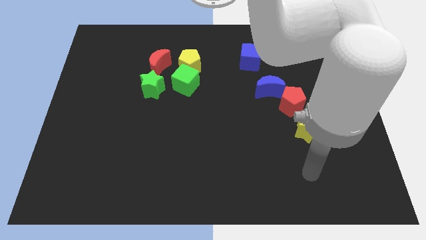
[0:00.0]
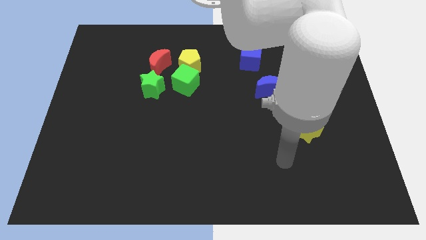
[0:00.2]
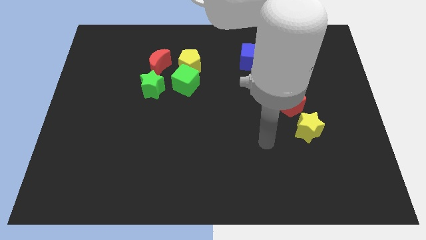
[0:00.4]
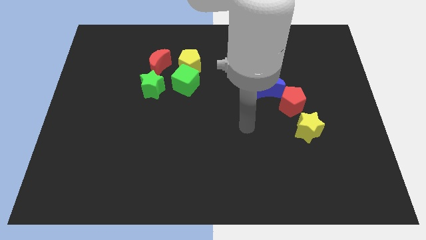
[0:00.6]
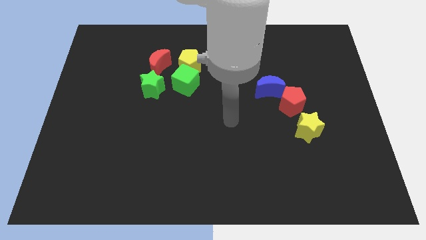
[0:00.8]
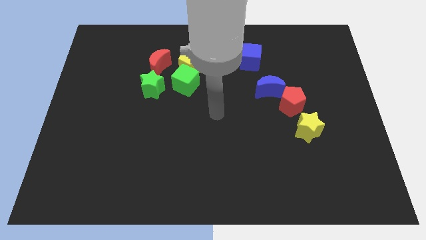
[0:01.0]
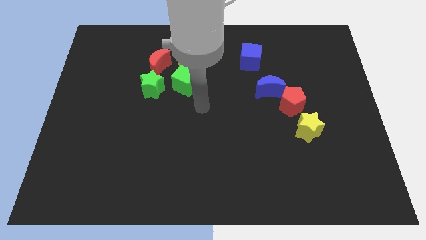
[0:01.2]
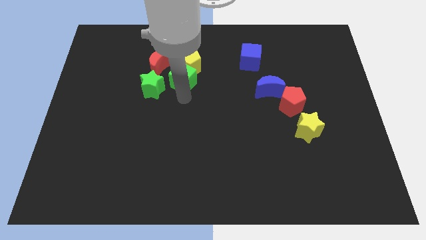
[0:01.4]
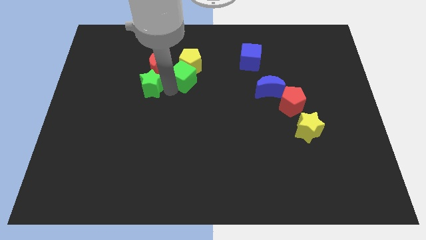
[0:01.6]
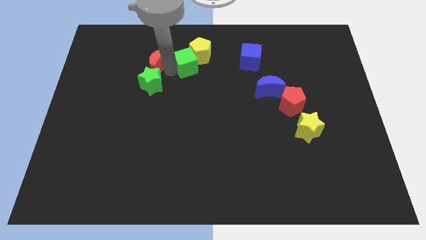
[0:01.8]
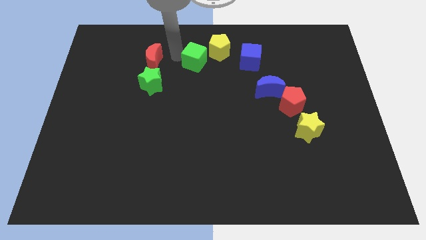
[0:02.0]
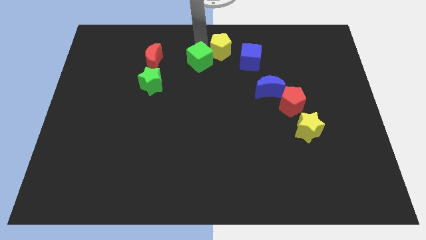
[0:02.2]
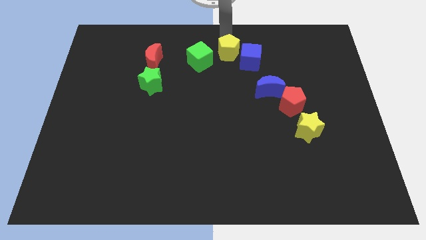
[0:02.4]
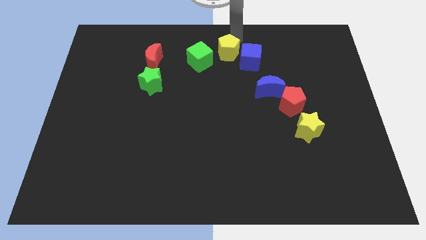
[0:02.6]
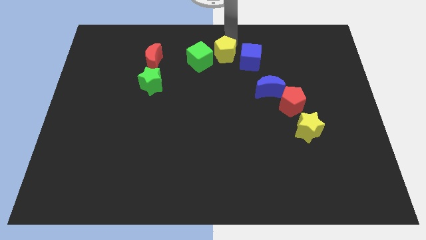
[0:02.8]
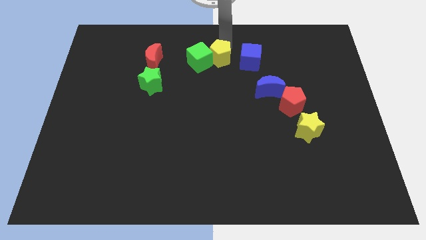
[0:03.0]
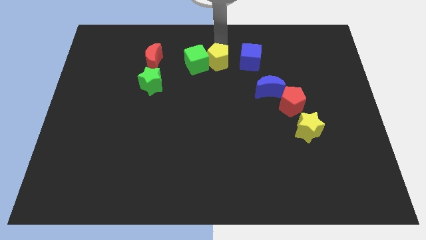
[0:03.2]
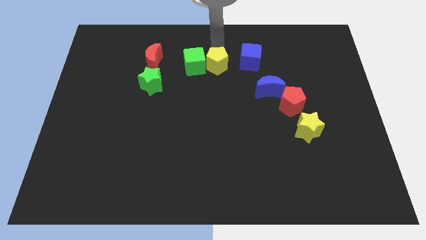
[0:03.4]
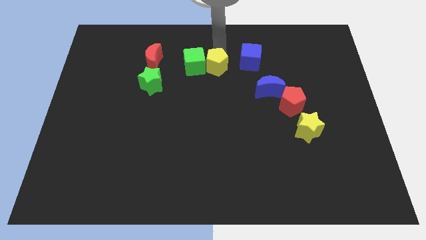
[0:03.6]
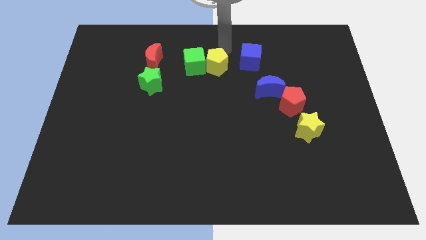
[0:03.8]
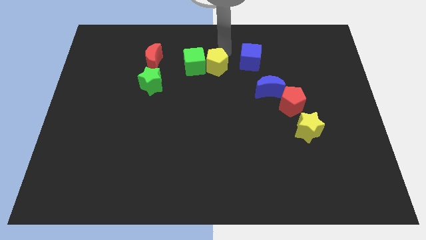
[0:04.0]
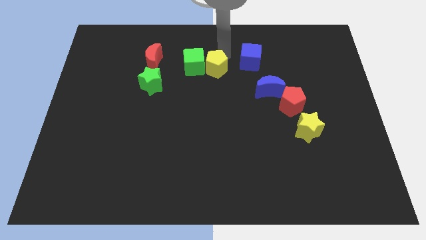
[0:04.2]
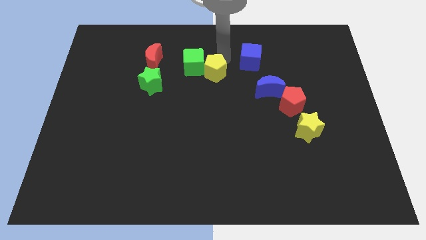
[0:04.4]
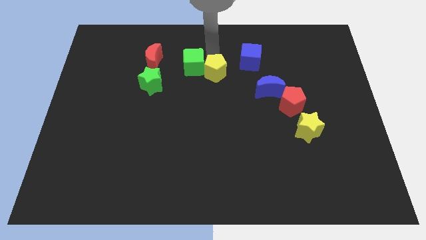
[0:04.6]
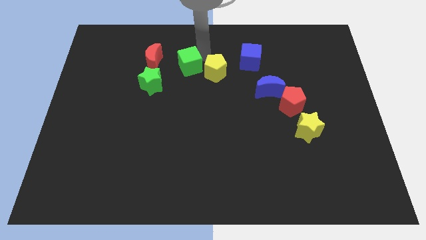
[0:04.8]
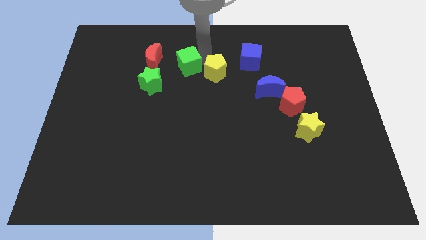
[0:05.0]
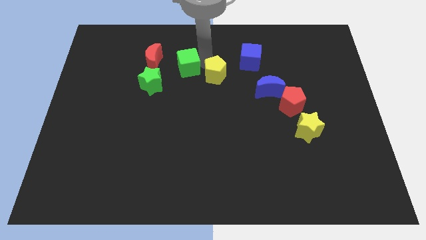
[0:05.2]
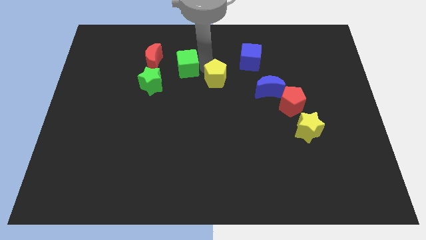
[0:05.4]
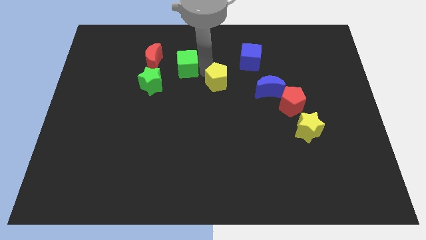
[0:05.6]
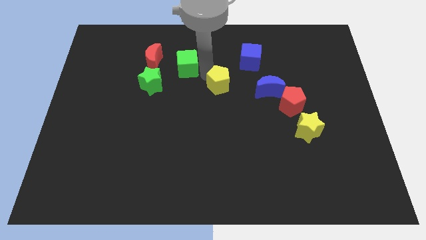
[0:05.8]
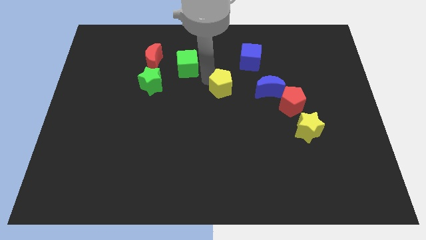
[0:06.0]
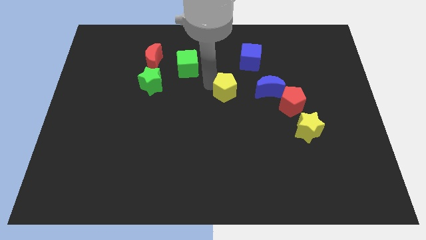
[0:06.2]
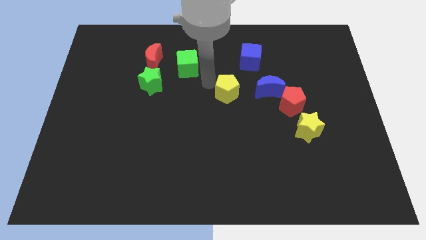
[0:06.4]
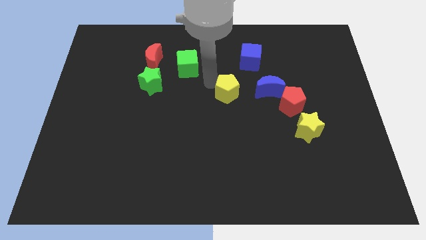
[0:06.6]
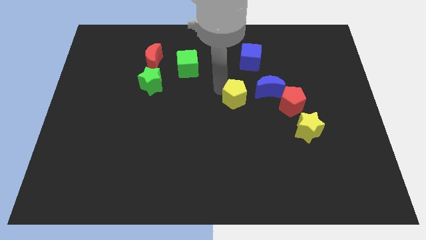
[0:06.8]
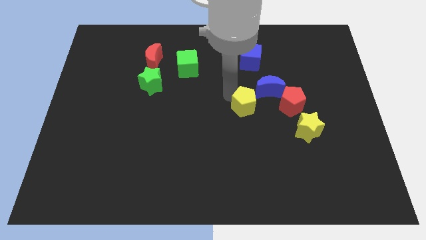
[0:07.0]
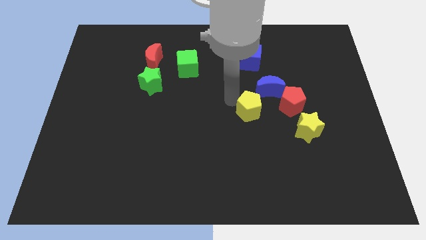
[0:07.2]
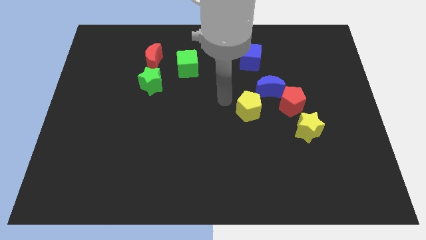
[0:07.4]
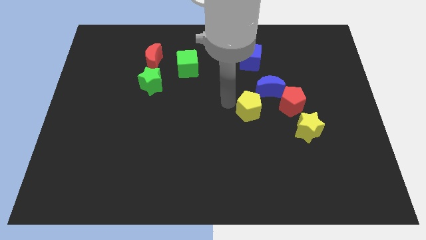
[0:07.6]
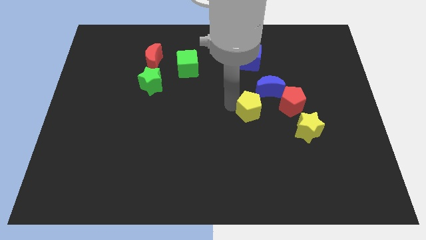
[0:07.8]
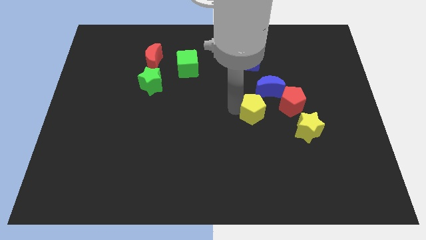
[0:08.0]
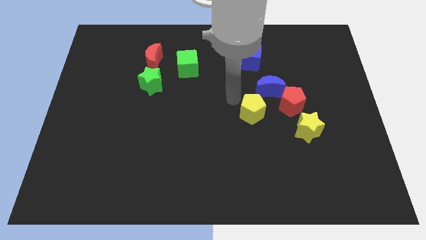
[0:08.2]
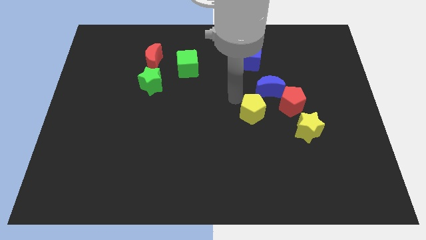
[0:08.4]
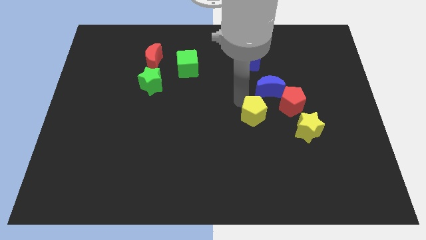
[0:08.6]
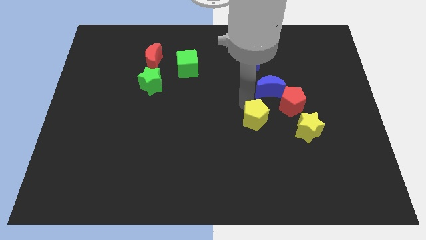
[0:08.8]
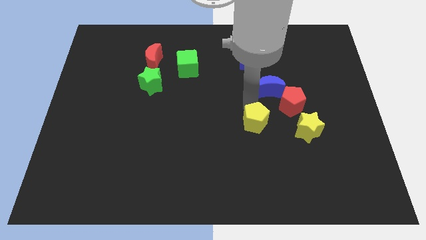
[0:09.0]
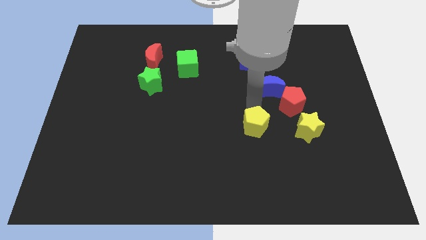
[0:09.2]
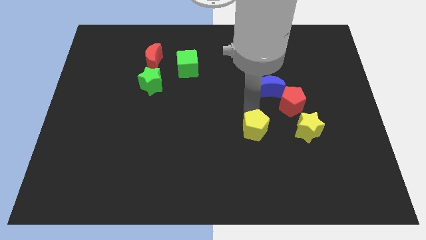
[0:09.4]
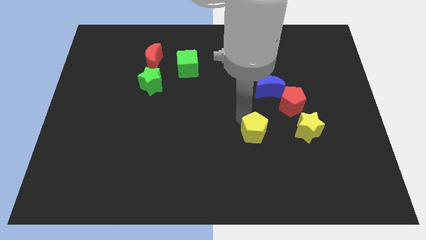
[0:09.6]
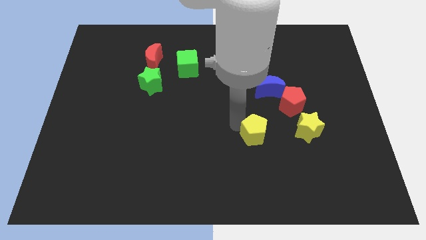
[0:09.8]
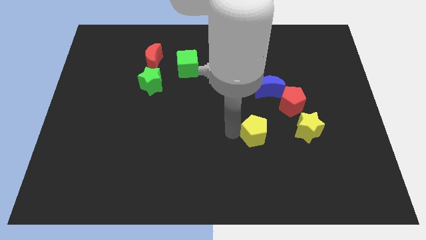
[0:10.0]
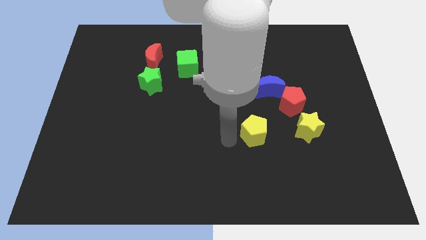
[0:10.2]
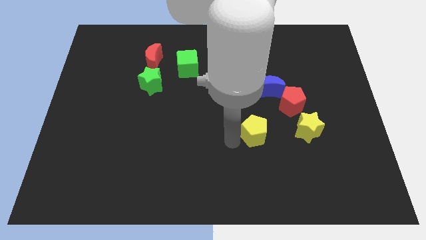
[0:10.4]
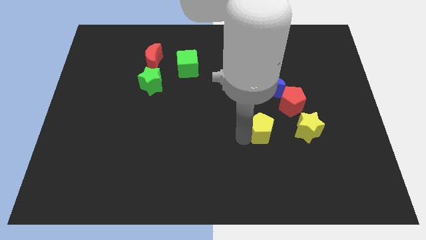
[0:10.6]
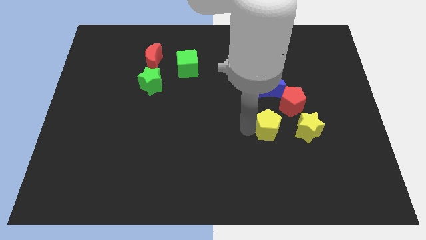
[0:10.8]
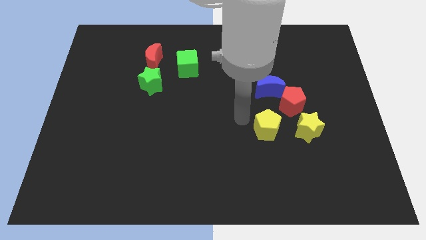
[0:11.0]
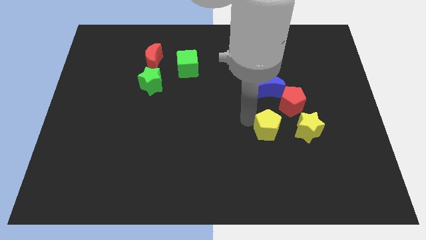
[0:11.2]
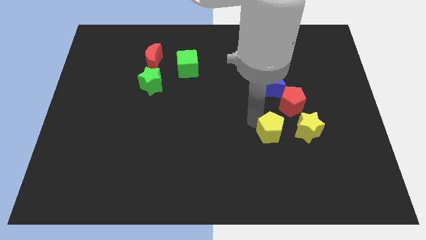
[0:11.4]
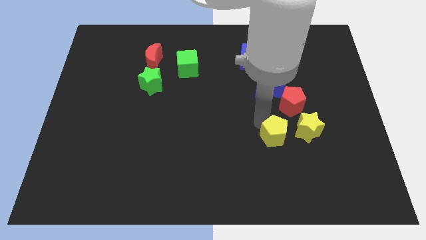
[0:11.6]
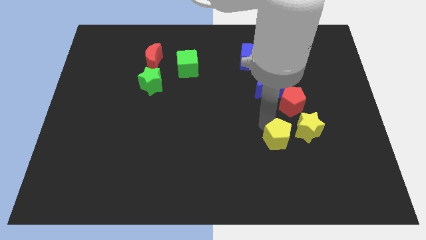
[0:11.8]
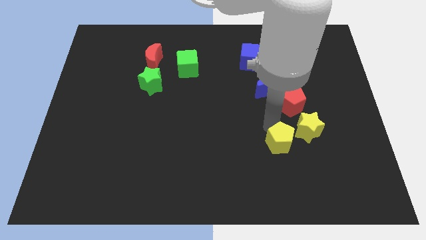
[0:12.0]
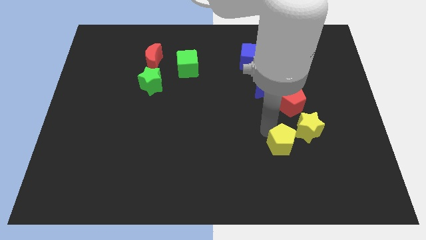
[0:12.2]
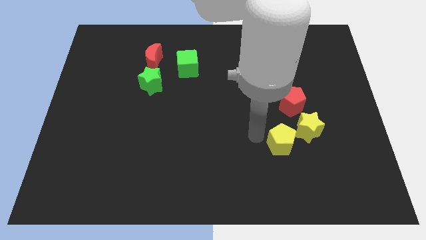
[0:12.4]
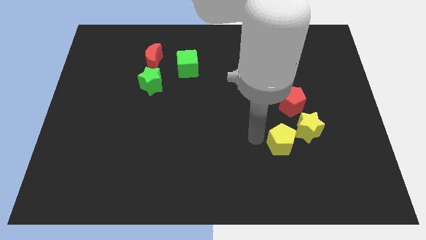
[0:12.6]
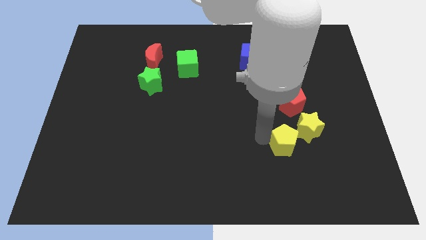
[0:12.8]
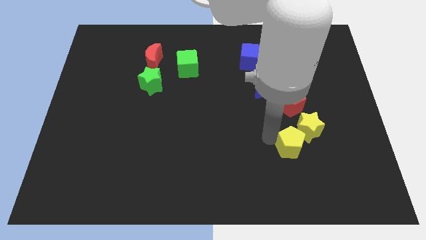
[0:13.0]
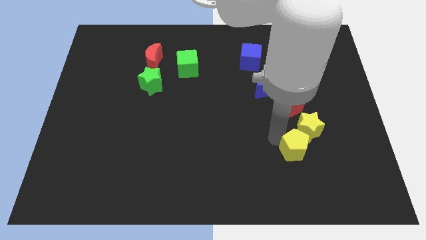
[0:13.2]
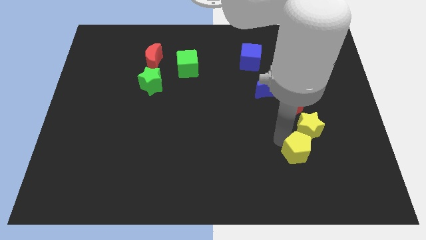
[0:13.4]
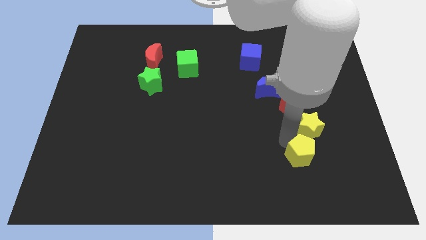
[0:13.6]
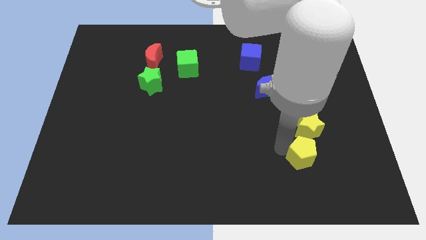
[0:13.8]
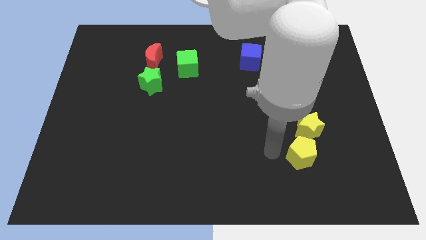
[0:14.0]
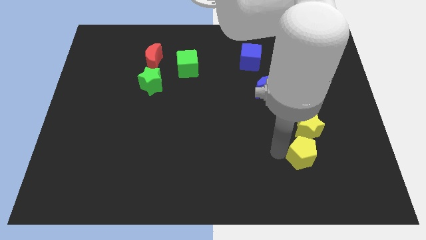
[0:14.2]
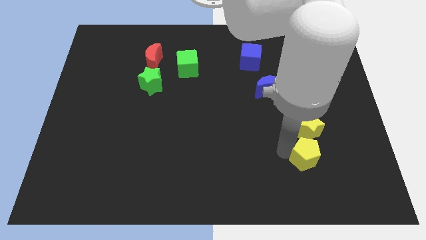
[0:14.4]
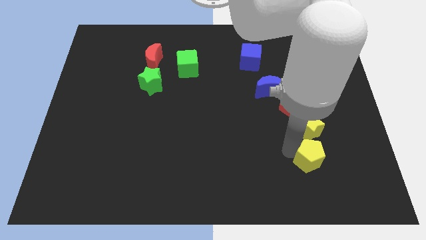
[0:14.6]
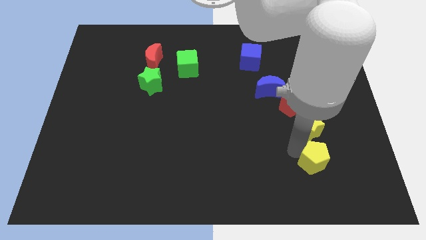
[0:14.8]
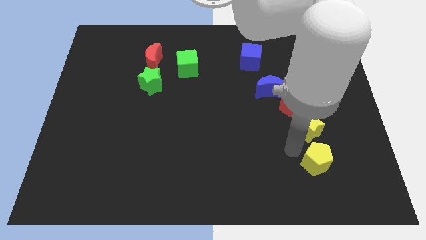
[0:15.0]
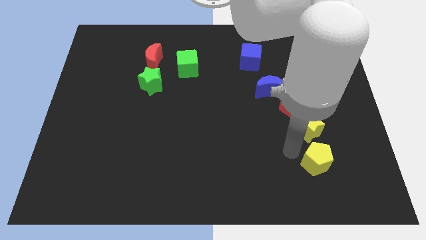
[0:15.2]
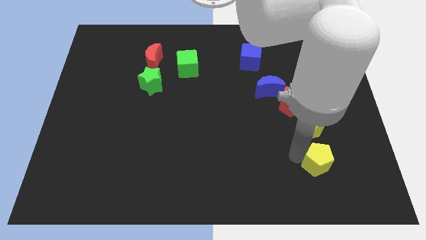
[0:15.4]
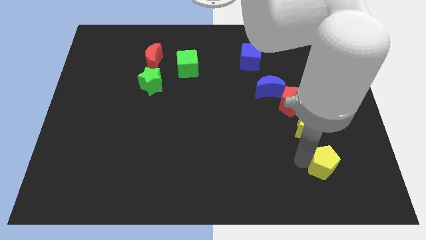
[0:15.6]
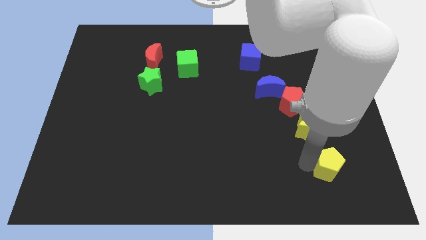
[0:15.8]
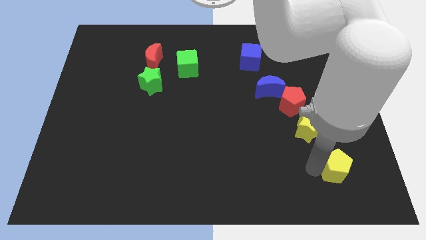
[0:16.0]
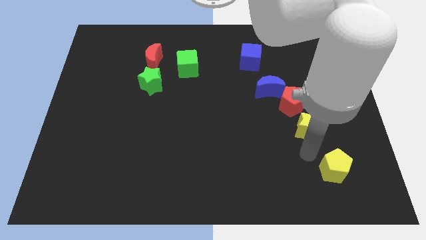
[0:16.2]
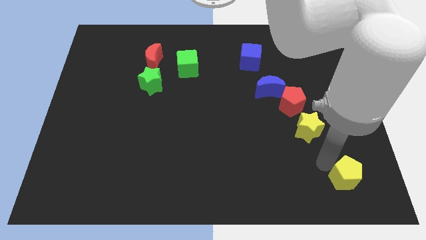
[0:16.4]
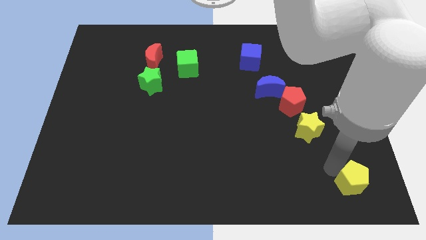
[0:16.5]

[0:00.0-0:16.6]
slide the yellow pentagon to the bottom right
